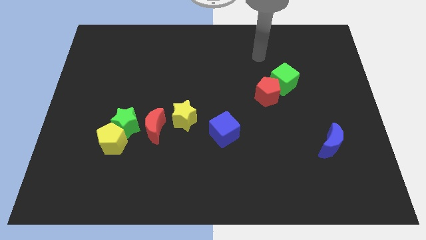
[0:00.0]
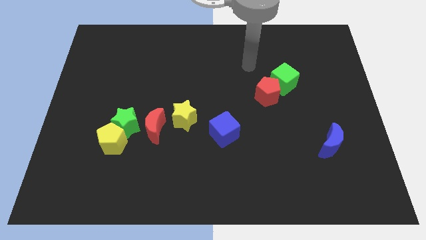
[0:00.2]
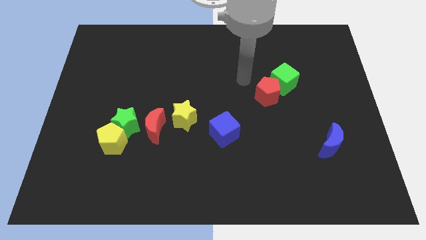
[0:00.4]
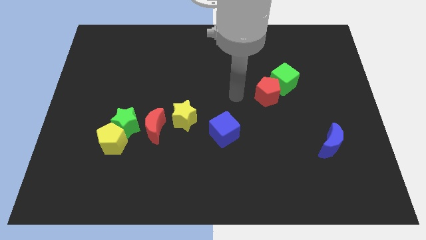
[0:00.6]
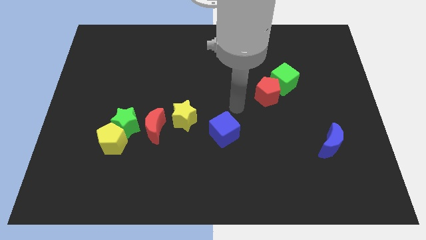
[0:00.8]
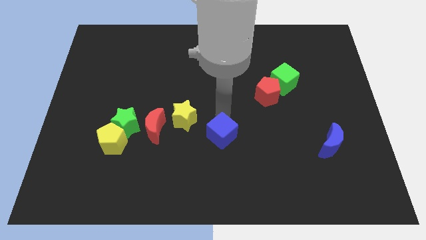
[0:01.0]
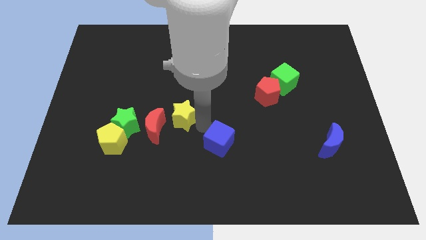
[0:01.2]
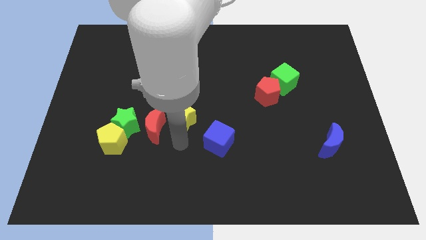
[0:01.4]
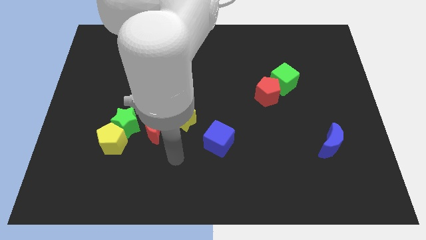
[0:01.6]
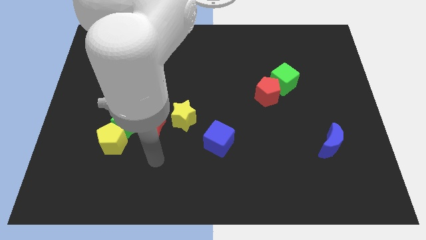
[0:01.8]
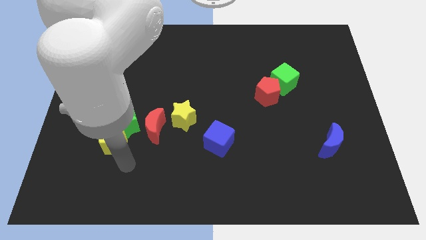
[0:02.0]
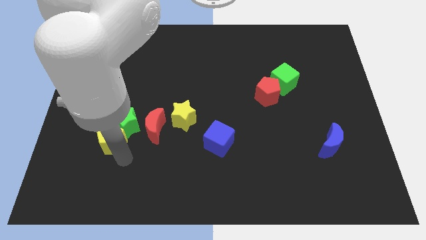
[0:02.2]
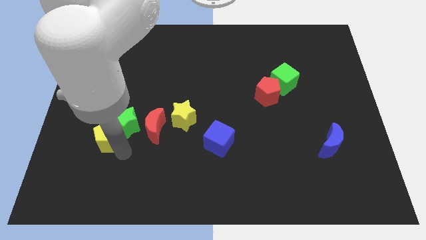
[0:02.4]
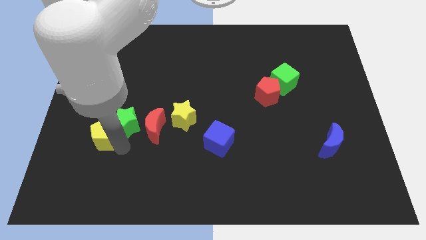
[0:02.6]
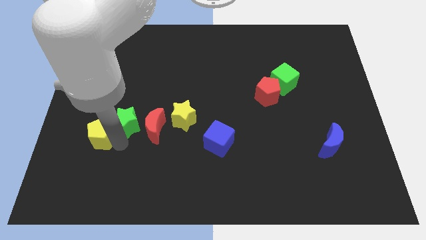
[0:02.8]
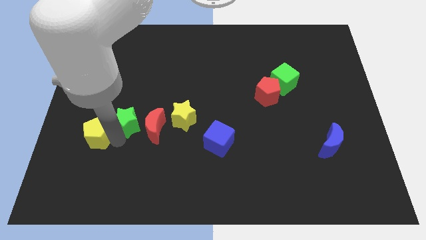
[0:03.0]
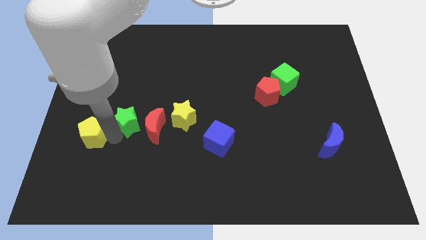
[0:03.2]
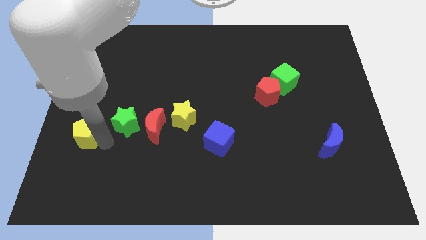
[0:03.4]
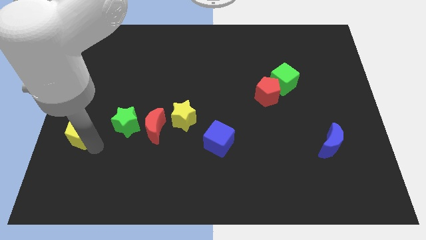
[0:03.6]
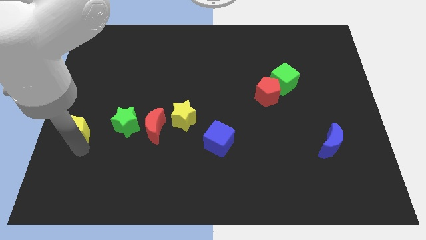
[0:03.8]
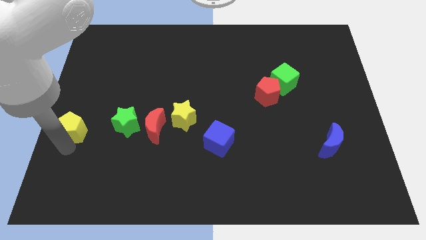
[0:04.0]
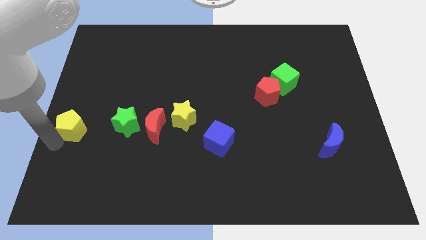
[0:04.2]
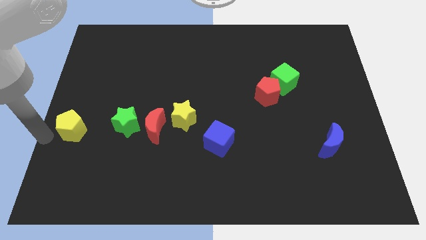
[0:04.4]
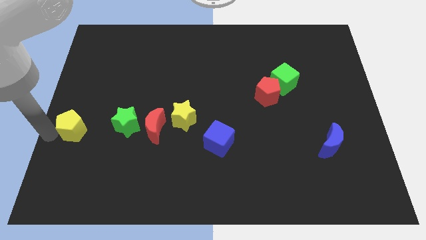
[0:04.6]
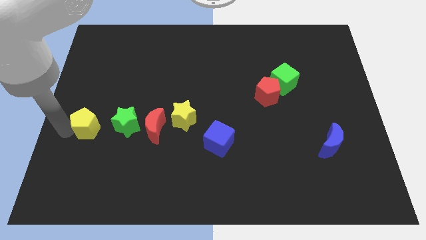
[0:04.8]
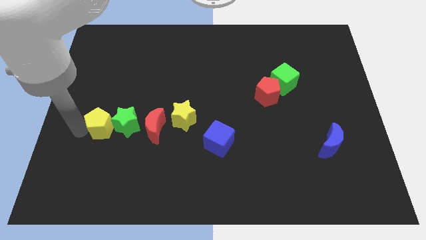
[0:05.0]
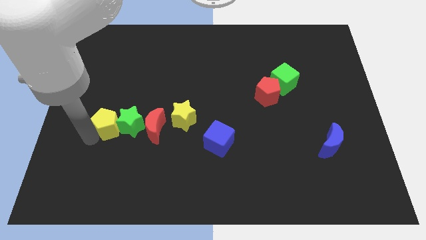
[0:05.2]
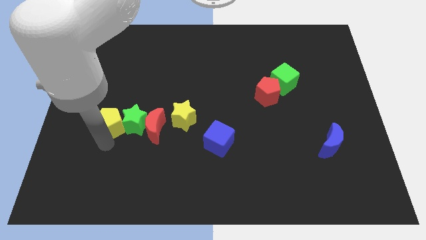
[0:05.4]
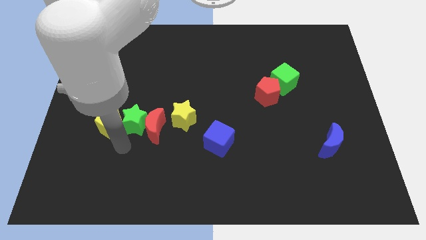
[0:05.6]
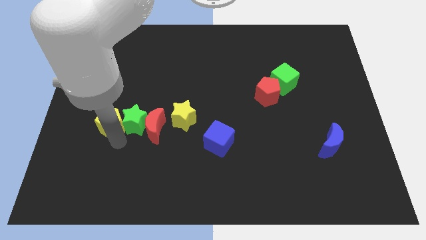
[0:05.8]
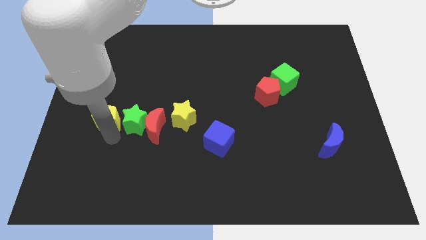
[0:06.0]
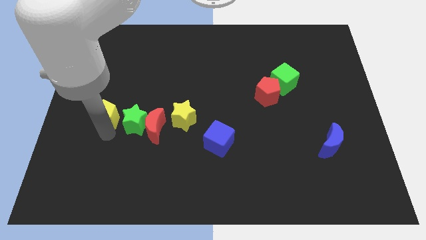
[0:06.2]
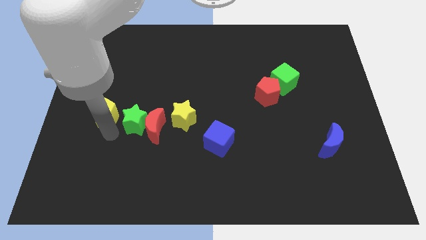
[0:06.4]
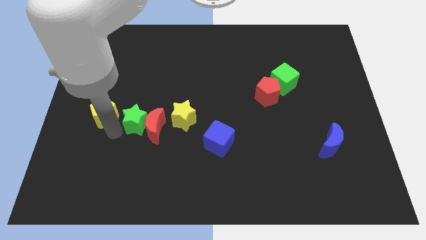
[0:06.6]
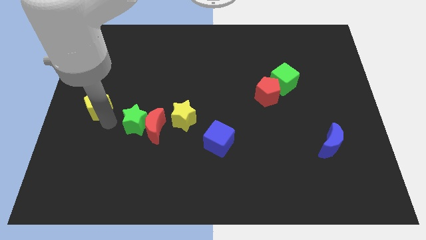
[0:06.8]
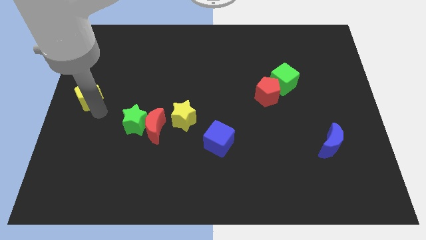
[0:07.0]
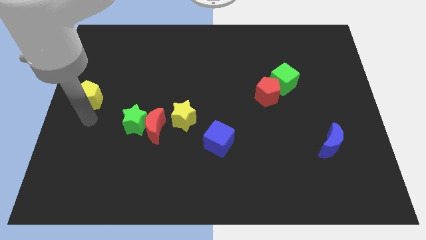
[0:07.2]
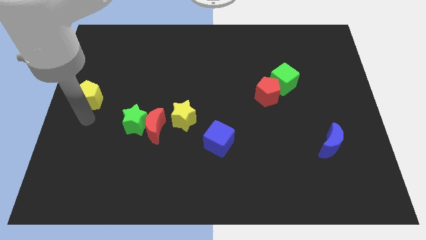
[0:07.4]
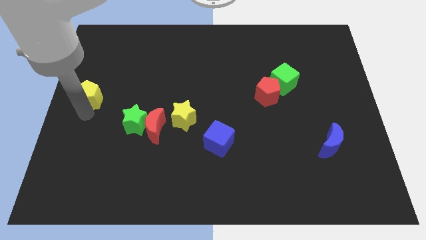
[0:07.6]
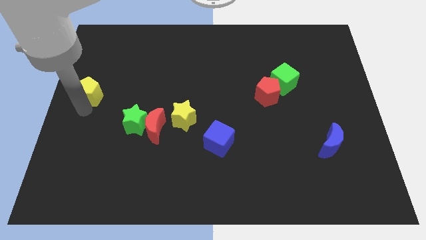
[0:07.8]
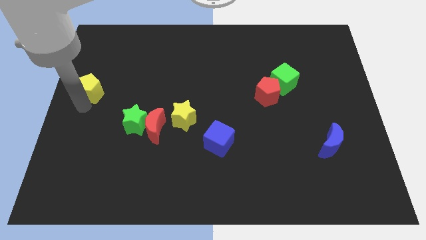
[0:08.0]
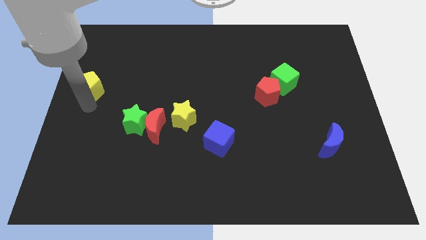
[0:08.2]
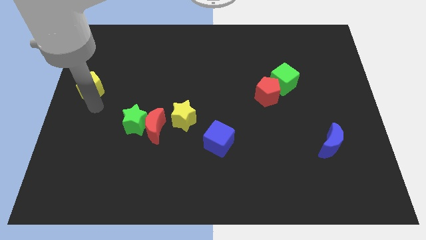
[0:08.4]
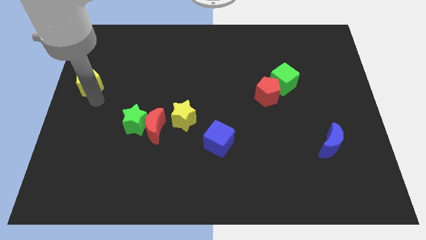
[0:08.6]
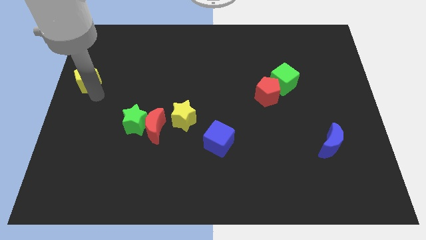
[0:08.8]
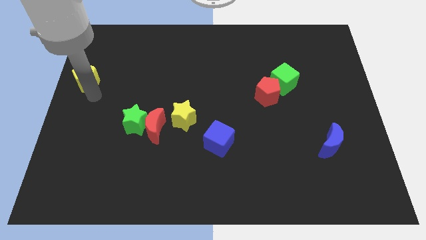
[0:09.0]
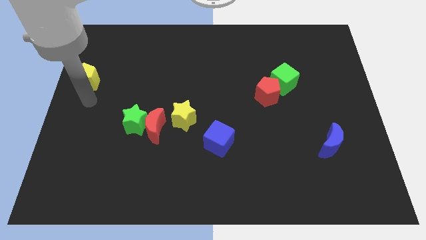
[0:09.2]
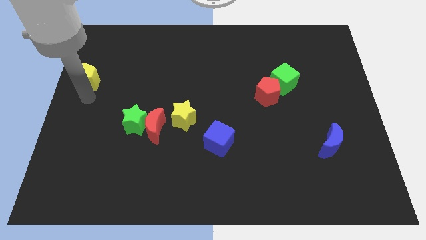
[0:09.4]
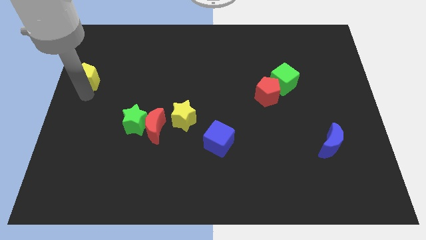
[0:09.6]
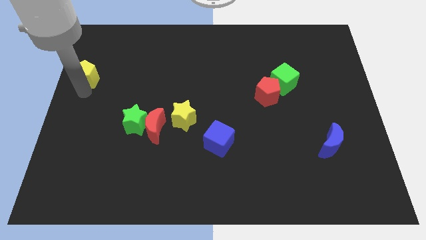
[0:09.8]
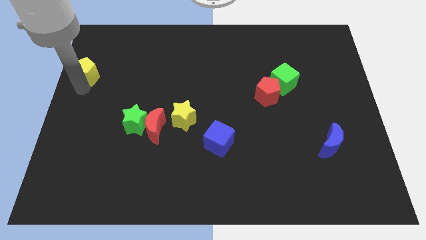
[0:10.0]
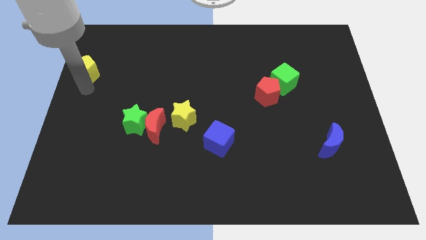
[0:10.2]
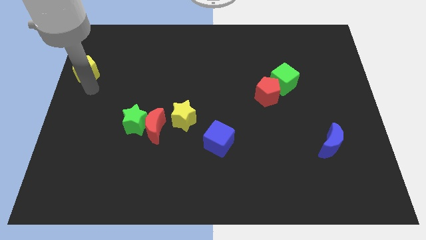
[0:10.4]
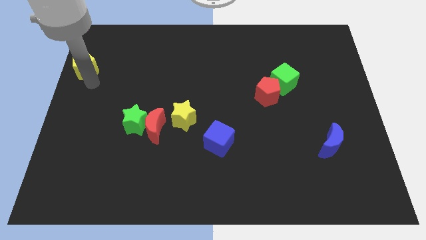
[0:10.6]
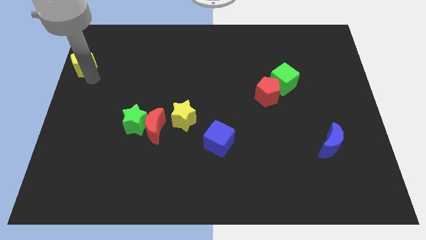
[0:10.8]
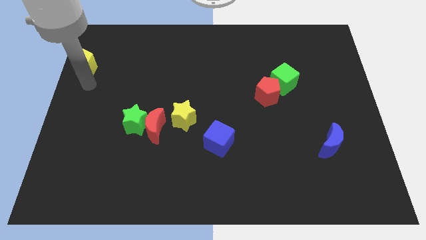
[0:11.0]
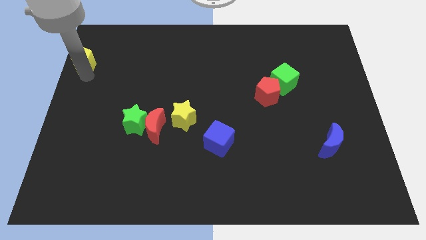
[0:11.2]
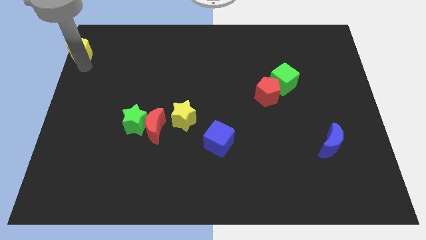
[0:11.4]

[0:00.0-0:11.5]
put the yellow pentagon to the upper left corner

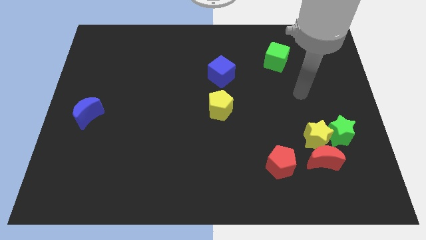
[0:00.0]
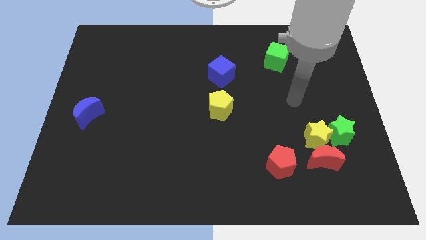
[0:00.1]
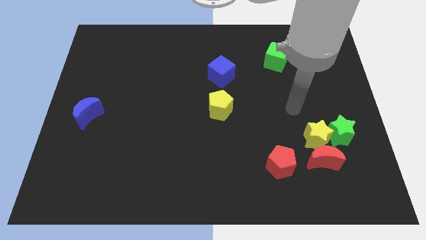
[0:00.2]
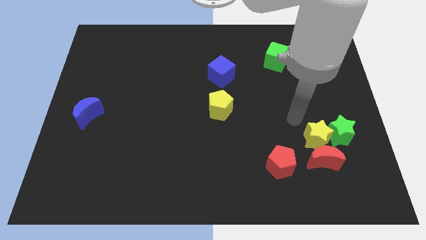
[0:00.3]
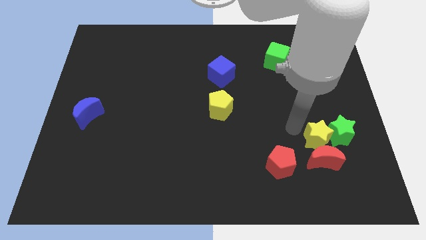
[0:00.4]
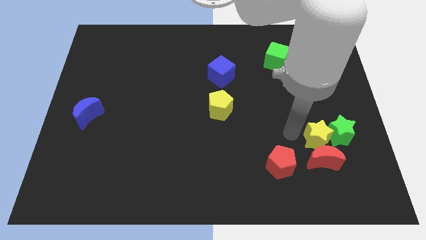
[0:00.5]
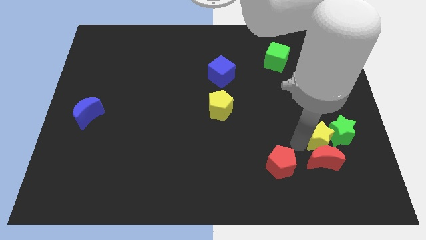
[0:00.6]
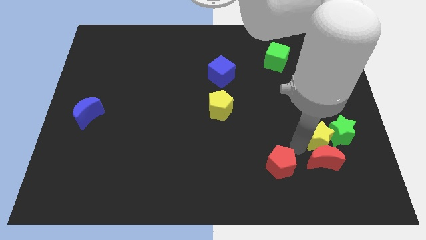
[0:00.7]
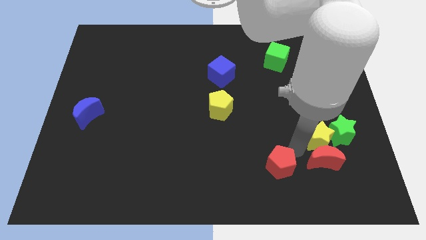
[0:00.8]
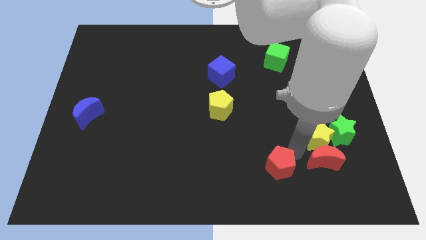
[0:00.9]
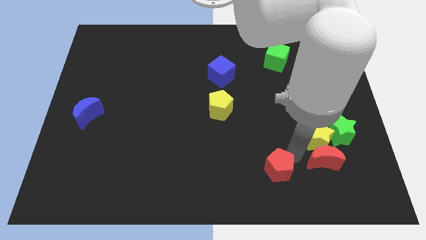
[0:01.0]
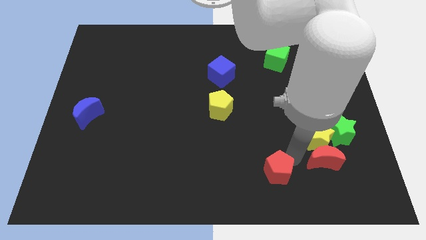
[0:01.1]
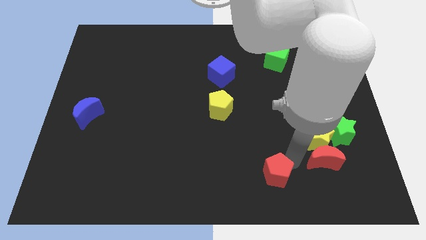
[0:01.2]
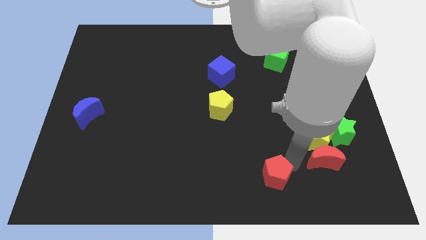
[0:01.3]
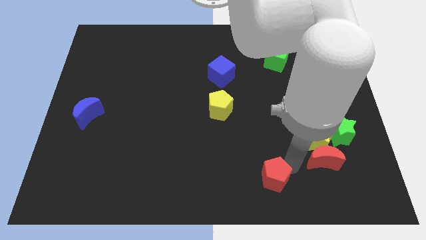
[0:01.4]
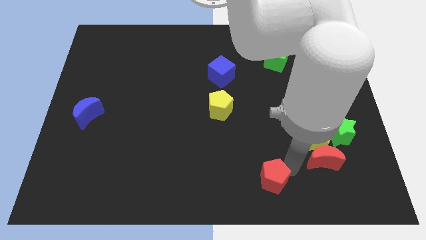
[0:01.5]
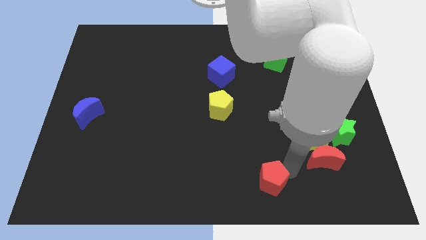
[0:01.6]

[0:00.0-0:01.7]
put the red pentagon to the bottom
